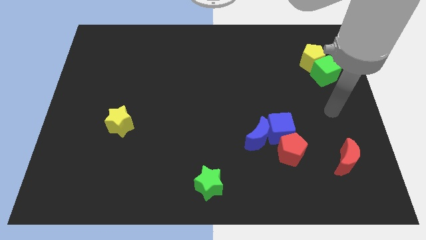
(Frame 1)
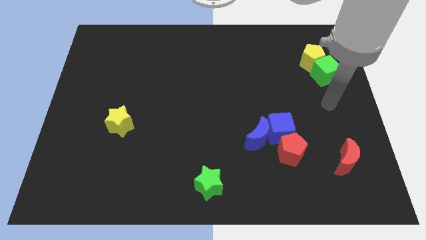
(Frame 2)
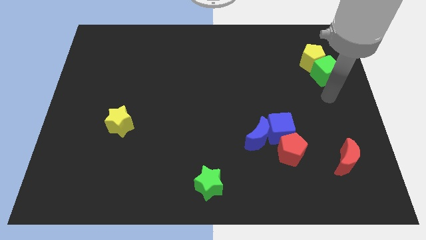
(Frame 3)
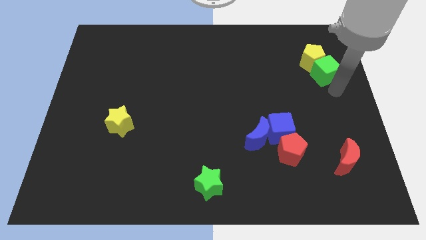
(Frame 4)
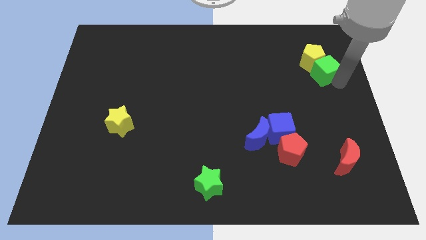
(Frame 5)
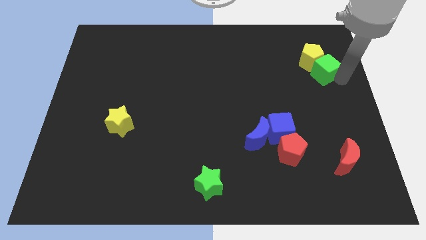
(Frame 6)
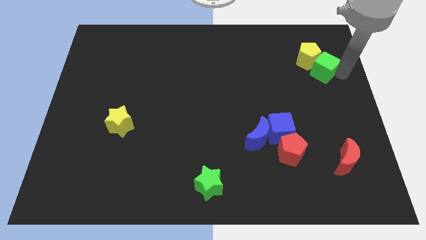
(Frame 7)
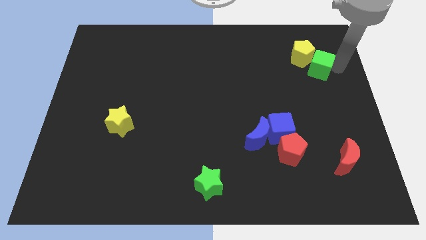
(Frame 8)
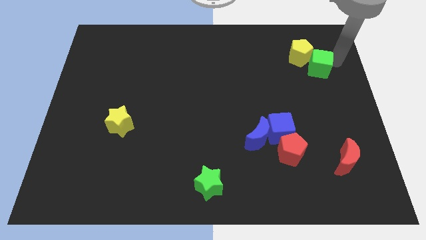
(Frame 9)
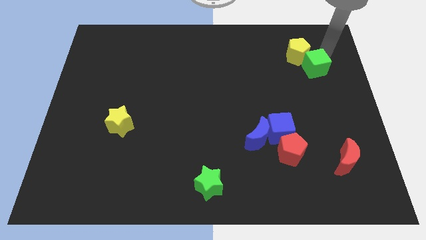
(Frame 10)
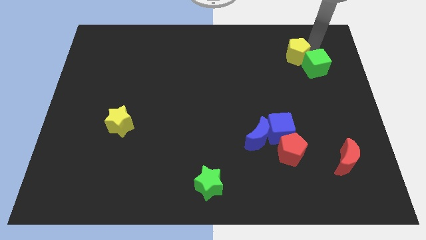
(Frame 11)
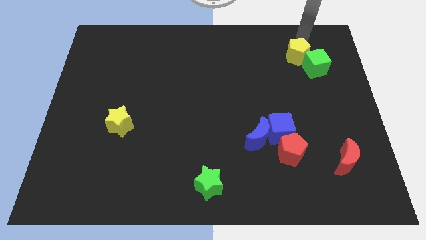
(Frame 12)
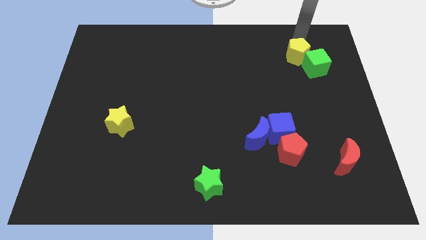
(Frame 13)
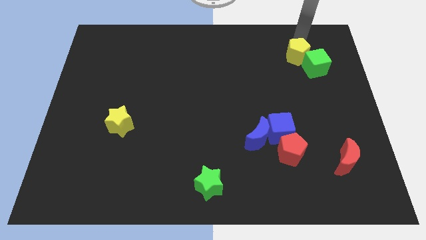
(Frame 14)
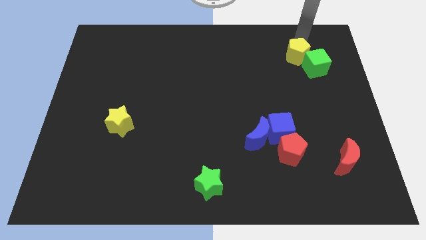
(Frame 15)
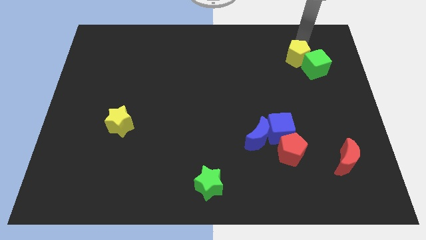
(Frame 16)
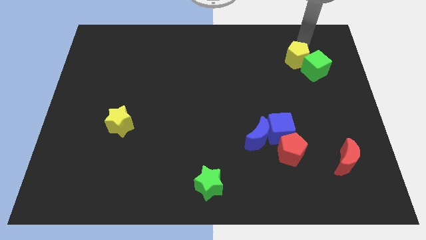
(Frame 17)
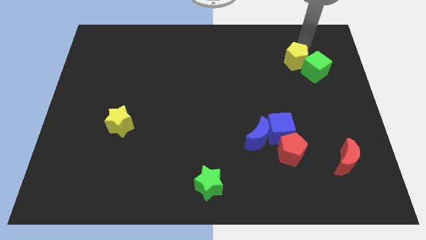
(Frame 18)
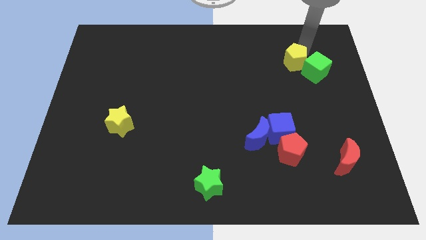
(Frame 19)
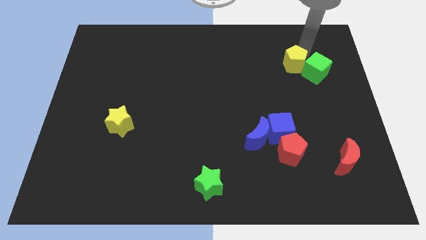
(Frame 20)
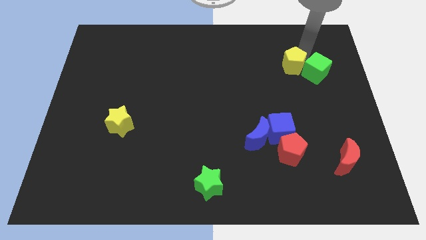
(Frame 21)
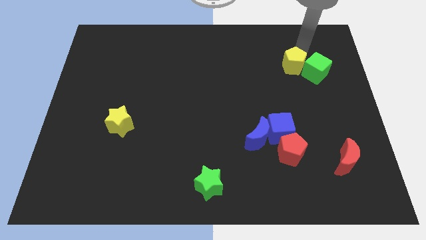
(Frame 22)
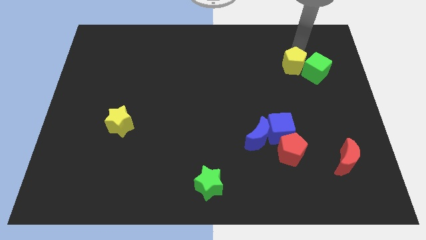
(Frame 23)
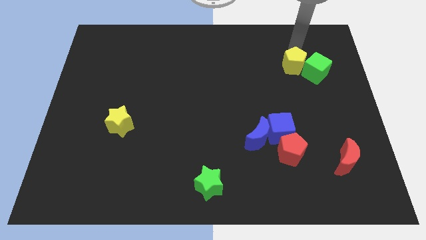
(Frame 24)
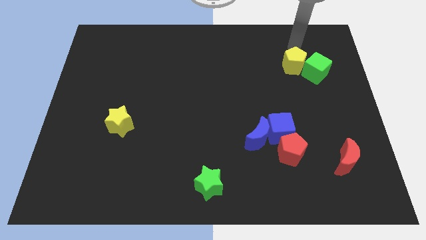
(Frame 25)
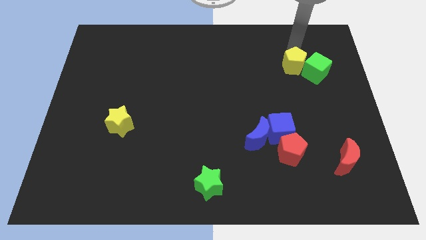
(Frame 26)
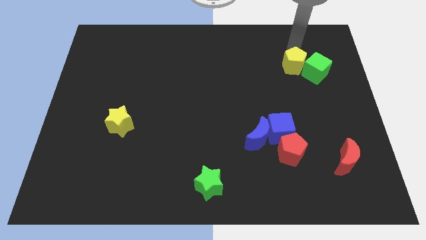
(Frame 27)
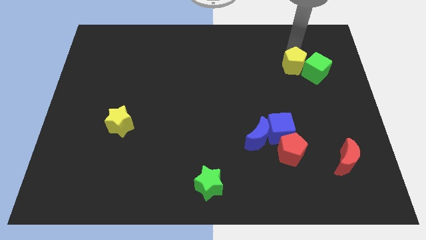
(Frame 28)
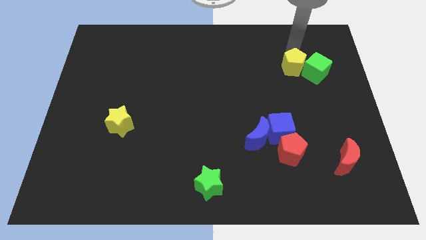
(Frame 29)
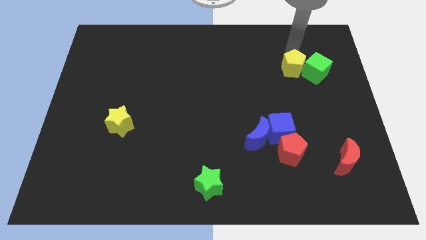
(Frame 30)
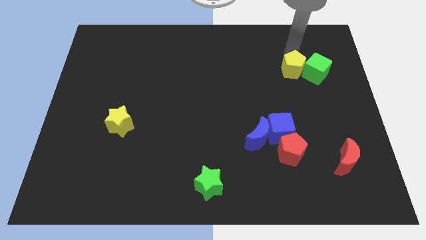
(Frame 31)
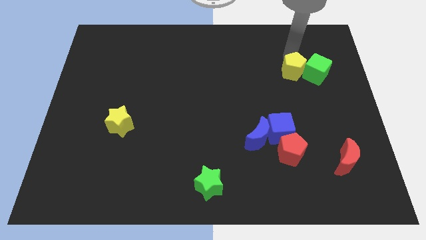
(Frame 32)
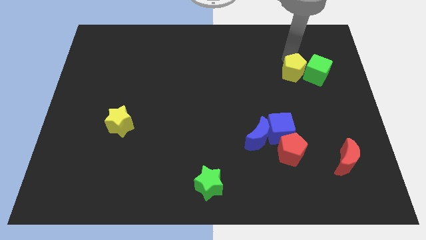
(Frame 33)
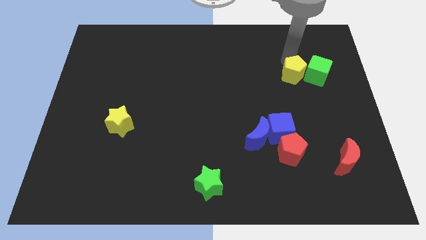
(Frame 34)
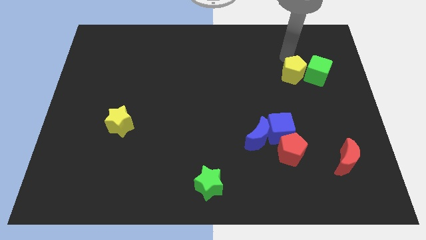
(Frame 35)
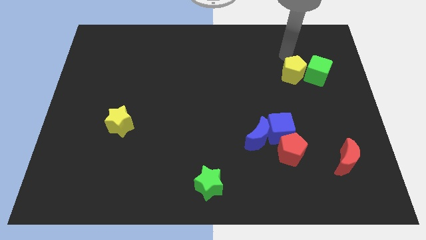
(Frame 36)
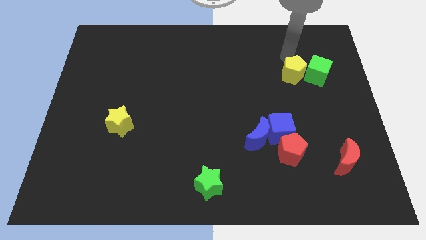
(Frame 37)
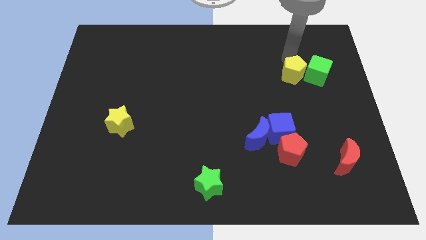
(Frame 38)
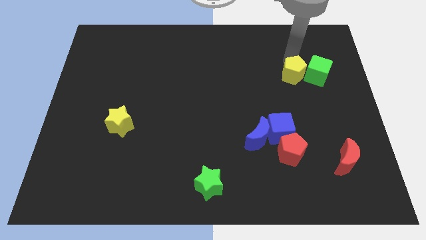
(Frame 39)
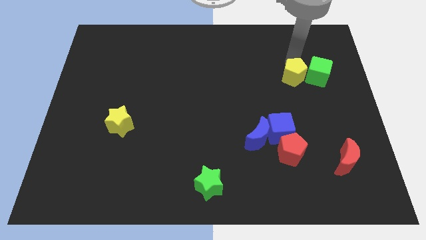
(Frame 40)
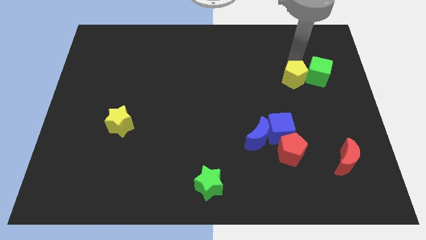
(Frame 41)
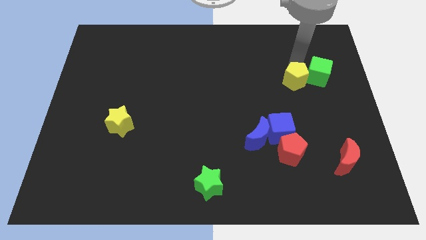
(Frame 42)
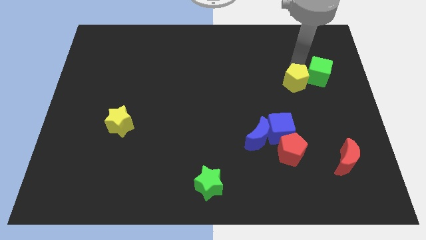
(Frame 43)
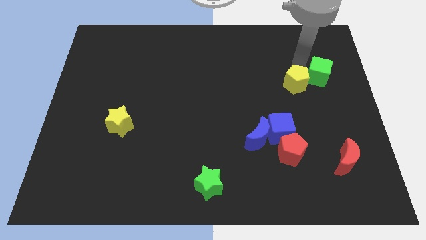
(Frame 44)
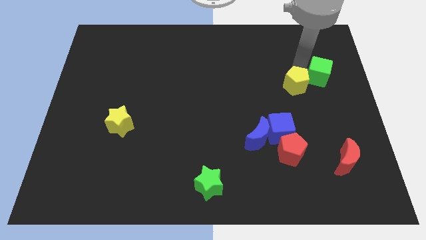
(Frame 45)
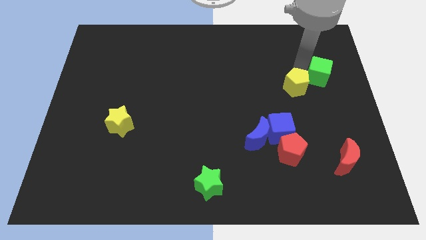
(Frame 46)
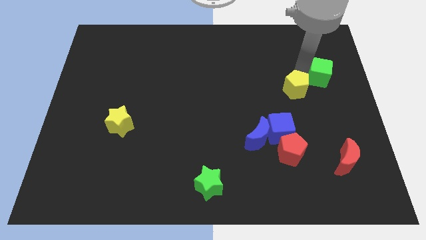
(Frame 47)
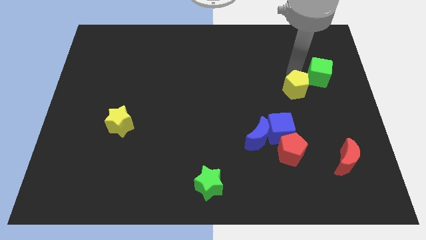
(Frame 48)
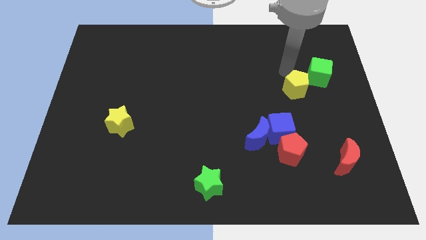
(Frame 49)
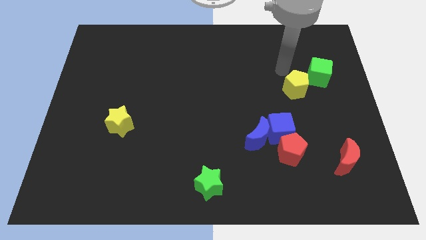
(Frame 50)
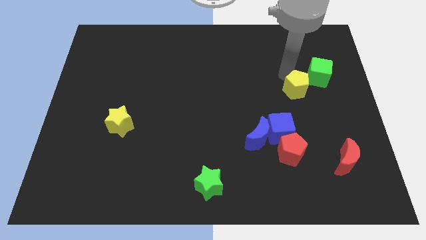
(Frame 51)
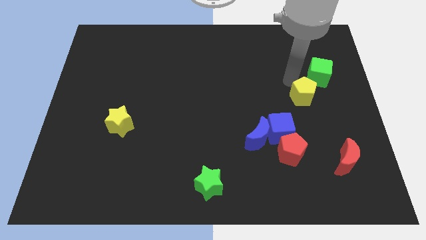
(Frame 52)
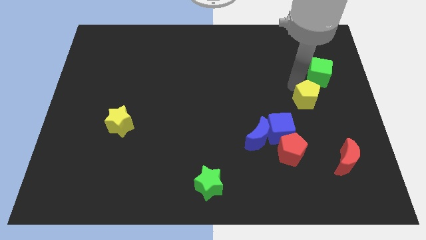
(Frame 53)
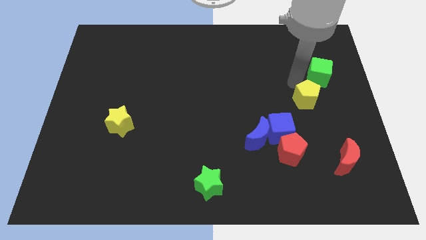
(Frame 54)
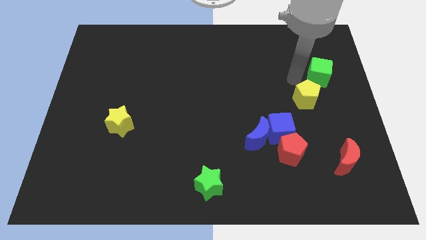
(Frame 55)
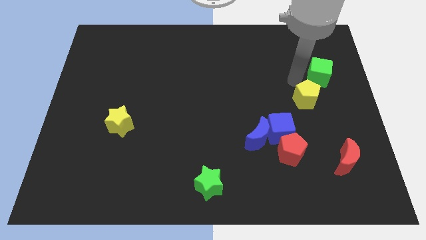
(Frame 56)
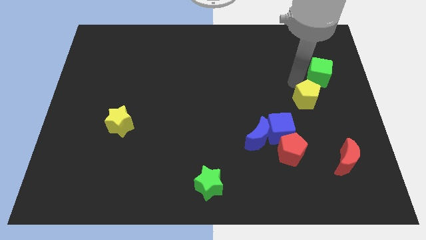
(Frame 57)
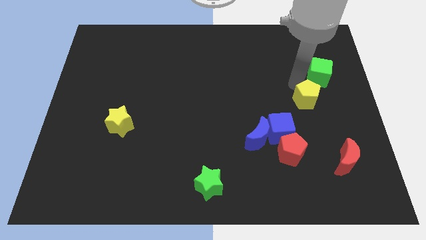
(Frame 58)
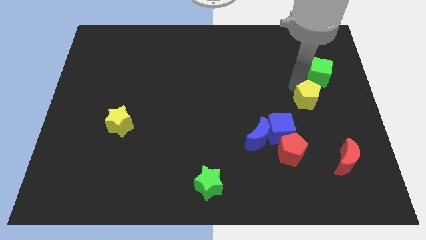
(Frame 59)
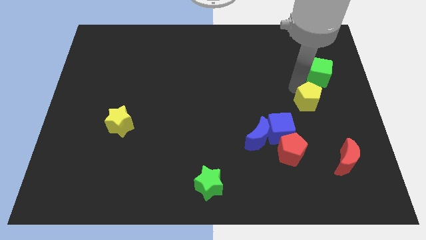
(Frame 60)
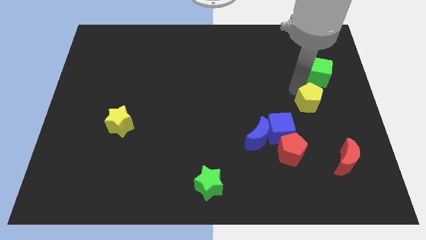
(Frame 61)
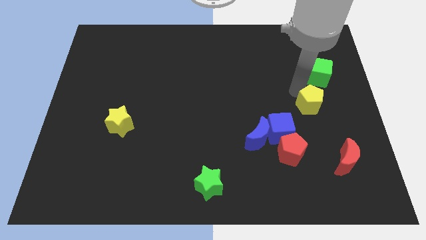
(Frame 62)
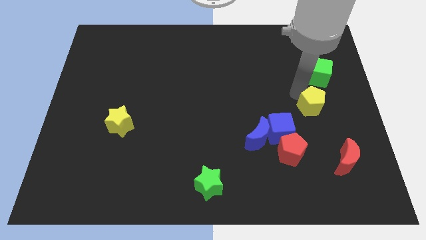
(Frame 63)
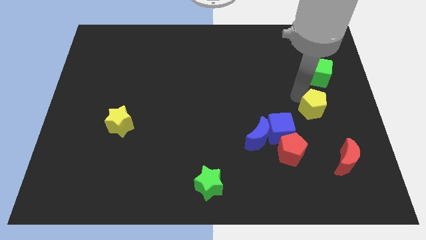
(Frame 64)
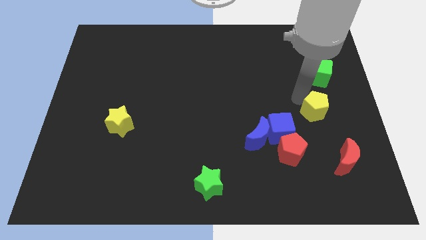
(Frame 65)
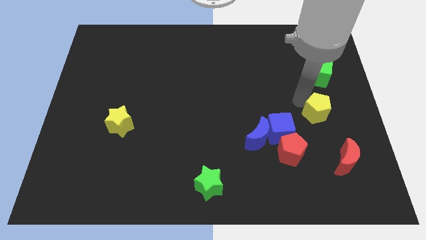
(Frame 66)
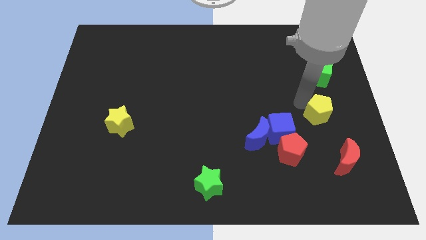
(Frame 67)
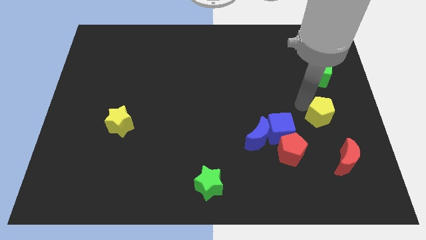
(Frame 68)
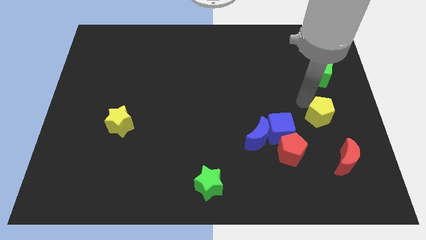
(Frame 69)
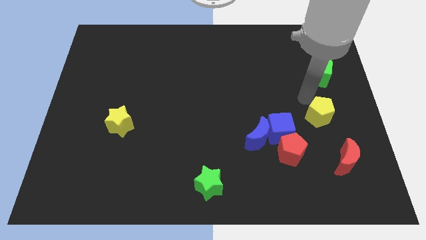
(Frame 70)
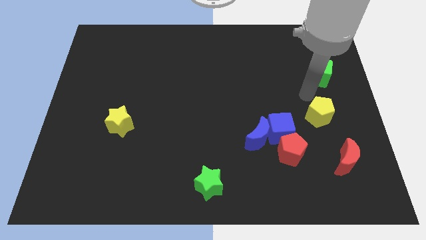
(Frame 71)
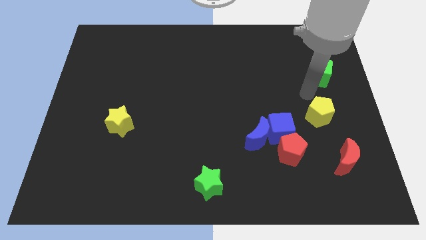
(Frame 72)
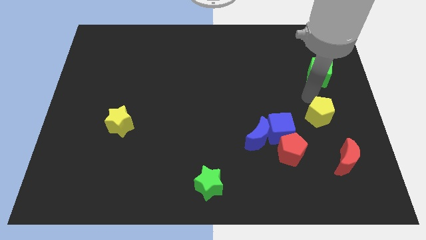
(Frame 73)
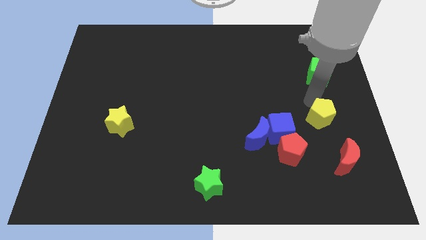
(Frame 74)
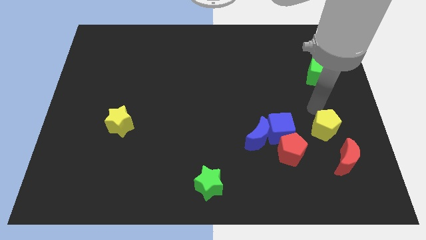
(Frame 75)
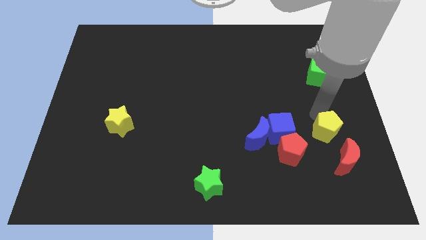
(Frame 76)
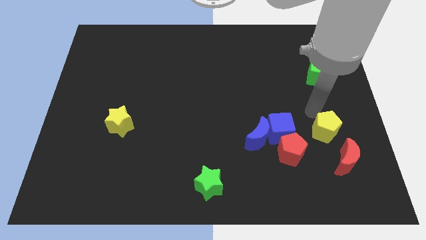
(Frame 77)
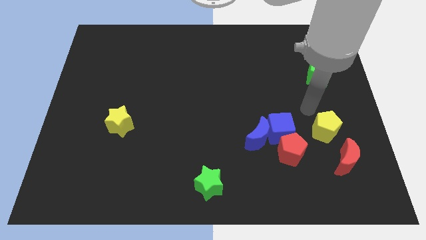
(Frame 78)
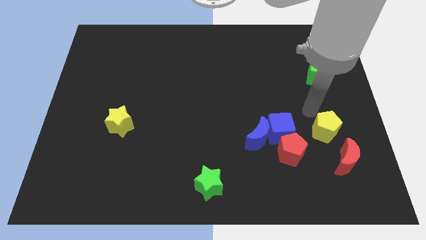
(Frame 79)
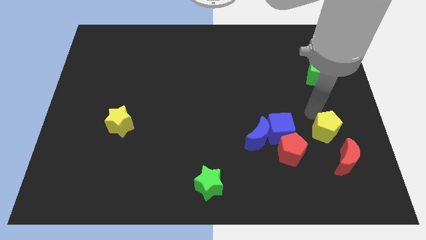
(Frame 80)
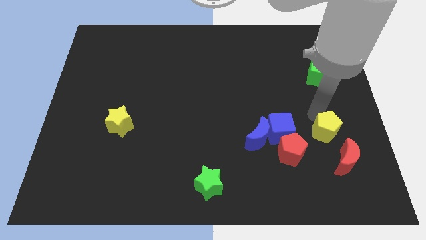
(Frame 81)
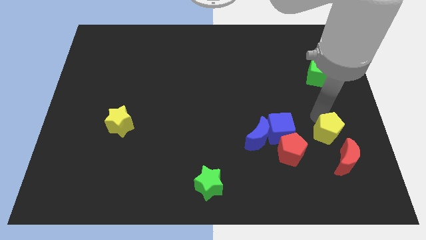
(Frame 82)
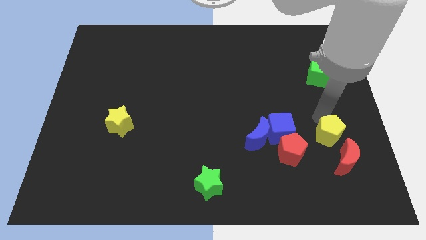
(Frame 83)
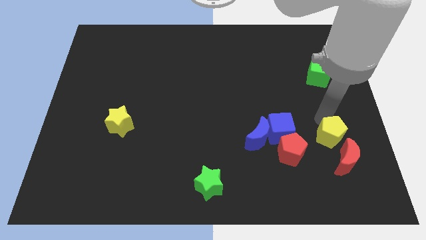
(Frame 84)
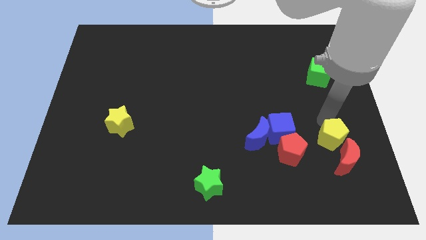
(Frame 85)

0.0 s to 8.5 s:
move the yellow pentagon close to the red moon
